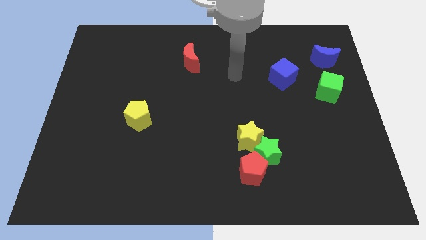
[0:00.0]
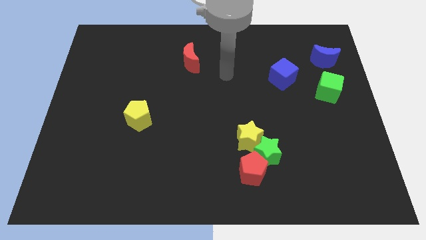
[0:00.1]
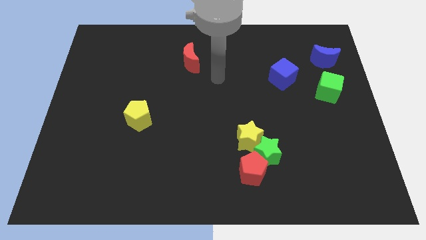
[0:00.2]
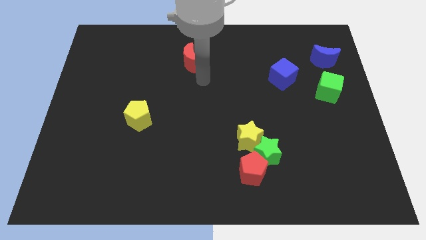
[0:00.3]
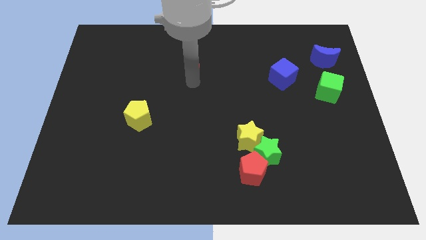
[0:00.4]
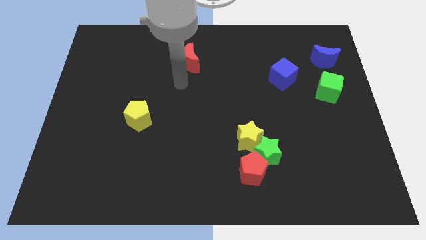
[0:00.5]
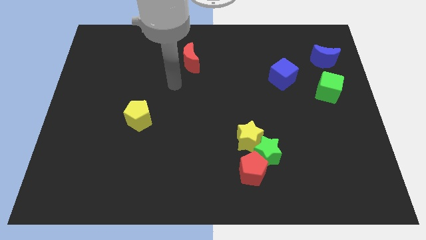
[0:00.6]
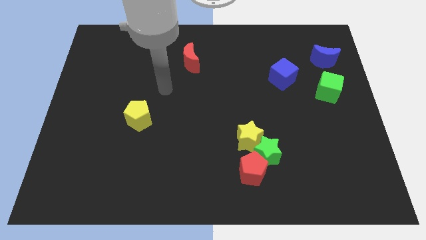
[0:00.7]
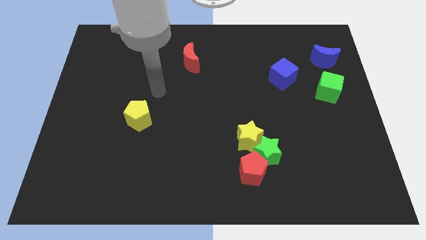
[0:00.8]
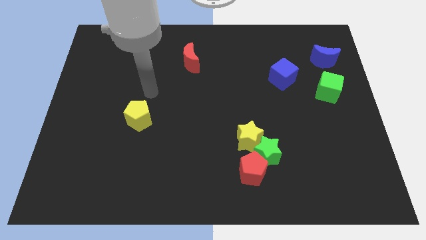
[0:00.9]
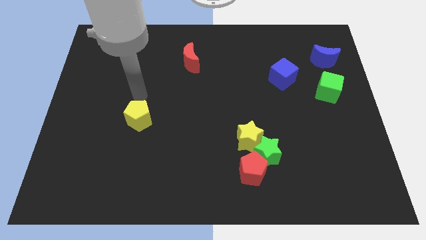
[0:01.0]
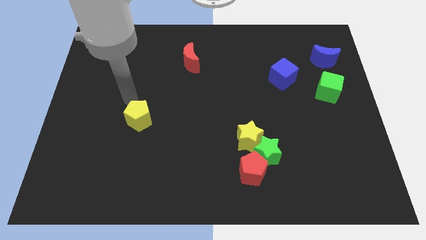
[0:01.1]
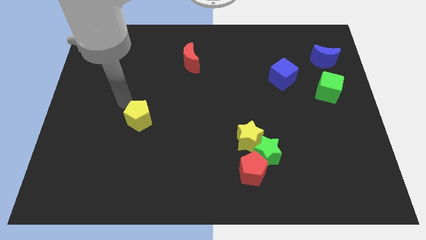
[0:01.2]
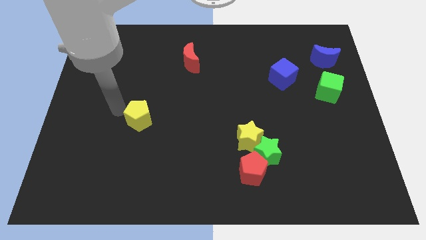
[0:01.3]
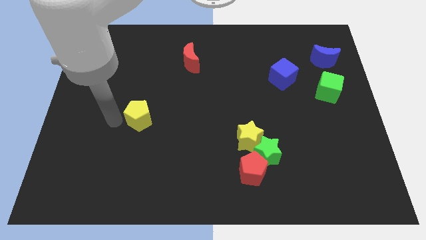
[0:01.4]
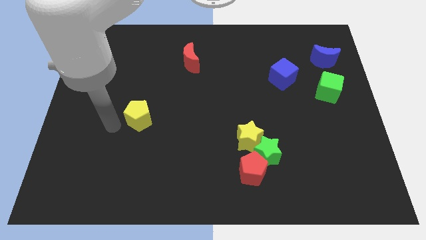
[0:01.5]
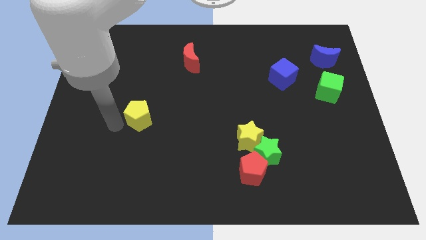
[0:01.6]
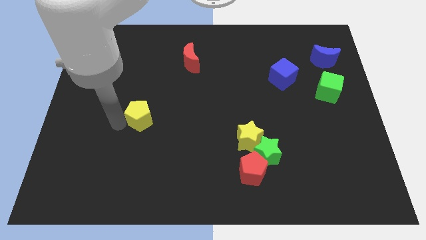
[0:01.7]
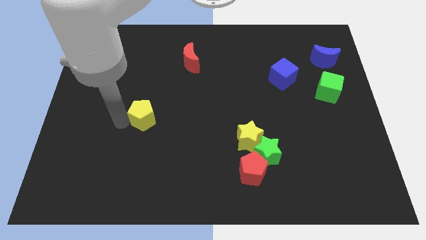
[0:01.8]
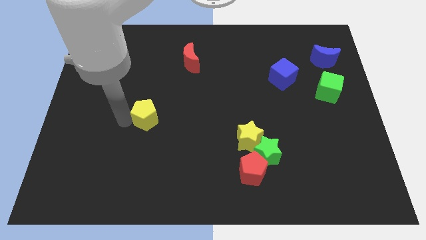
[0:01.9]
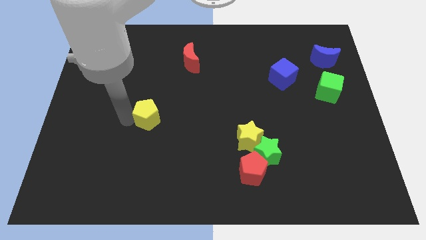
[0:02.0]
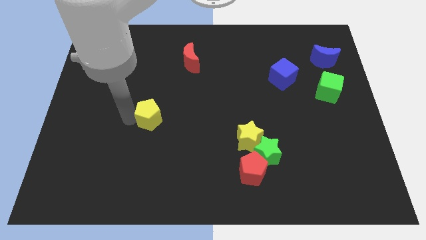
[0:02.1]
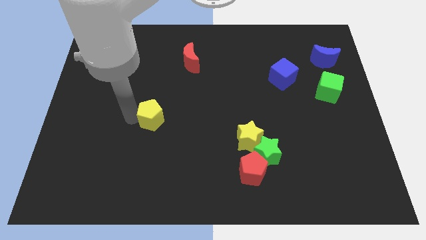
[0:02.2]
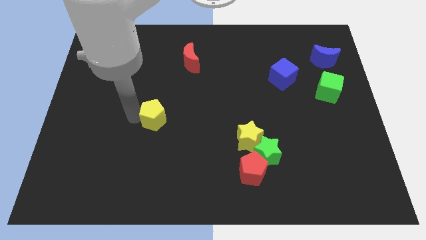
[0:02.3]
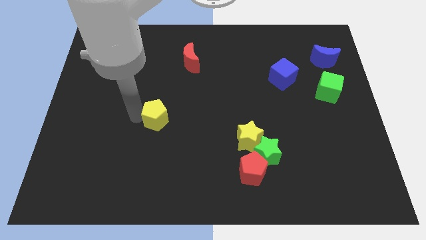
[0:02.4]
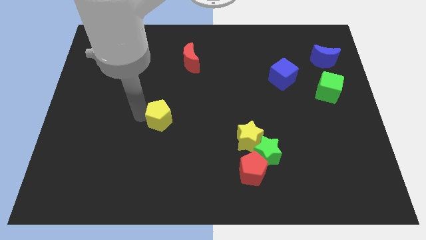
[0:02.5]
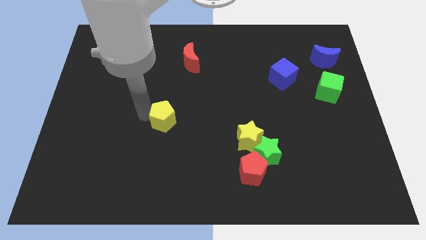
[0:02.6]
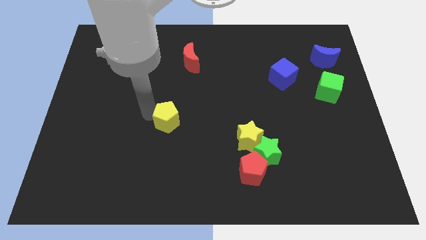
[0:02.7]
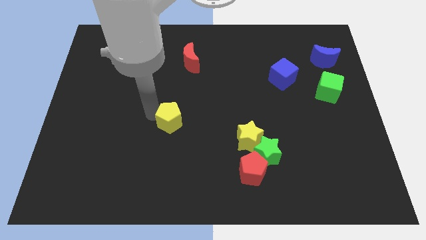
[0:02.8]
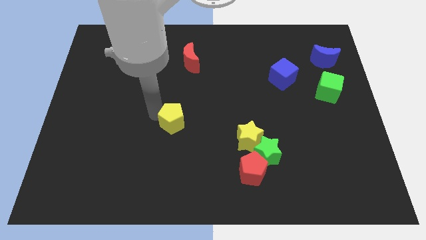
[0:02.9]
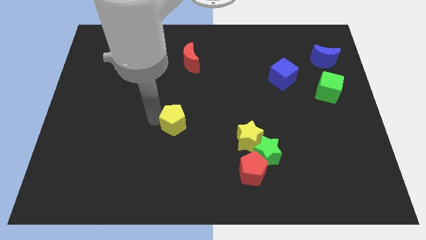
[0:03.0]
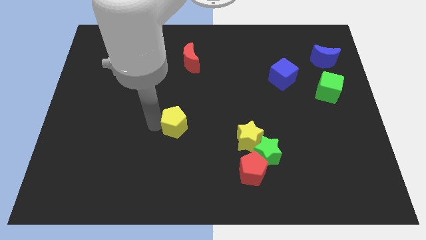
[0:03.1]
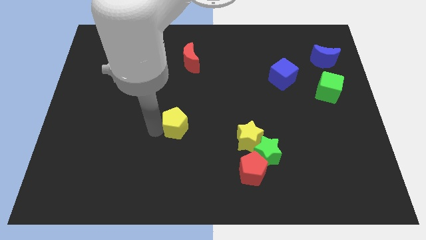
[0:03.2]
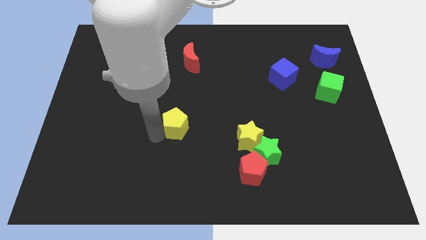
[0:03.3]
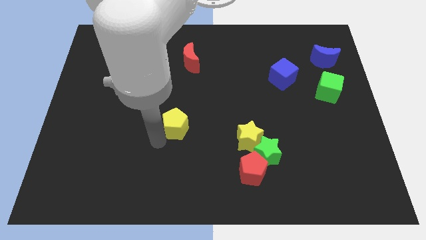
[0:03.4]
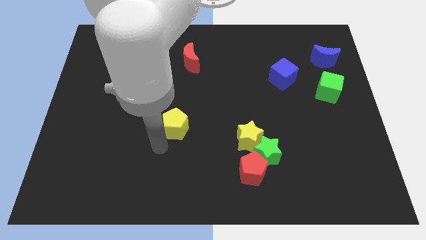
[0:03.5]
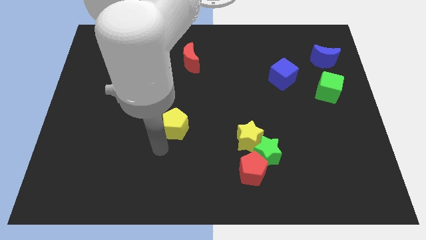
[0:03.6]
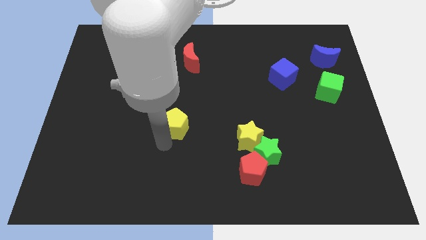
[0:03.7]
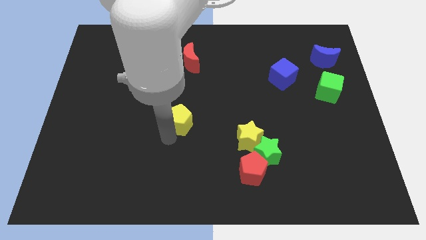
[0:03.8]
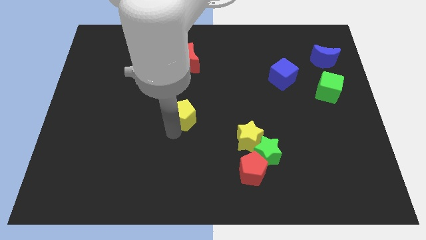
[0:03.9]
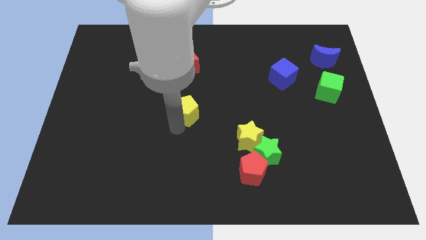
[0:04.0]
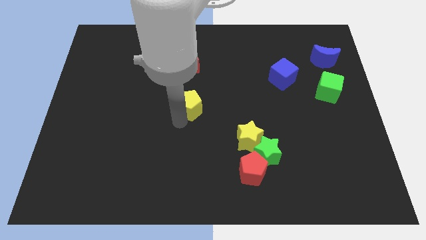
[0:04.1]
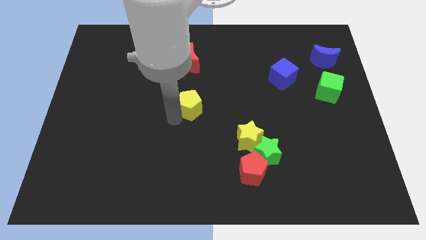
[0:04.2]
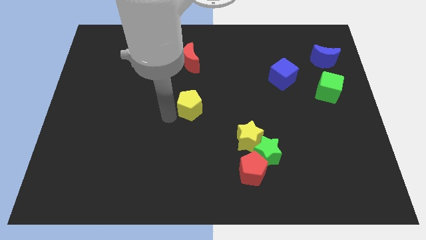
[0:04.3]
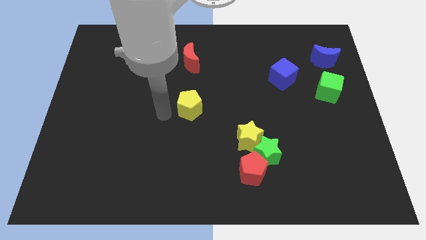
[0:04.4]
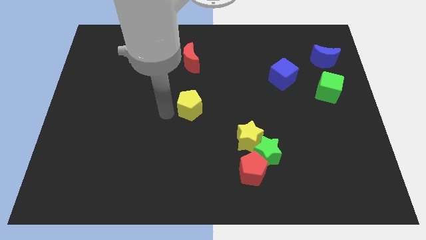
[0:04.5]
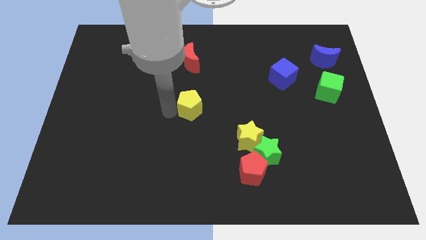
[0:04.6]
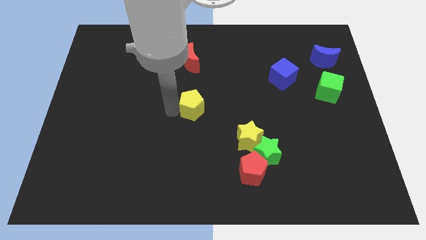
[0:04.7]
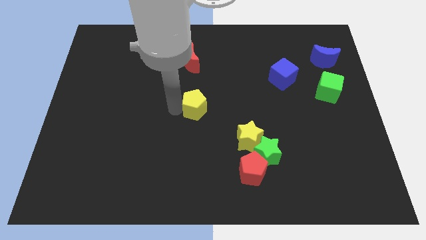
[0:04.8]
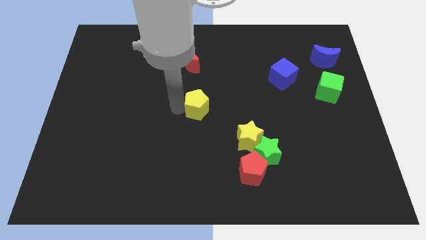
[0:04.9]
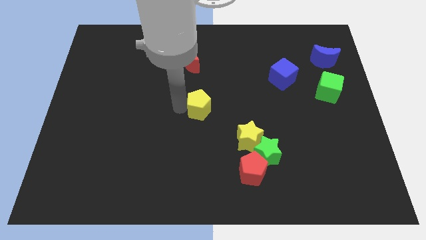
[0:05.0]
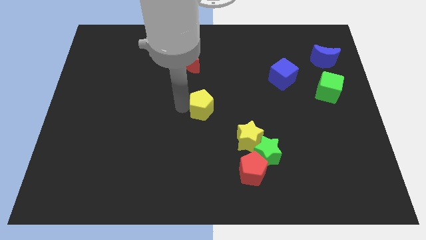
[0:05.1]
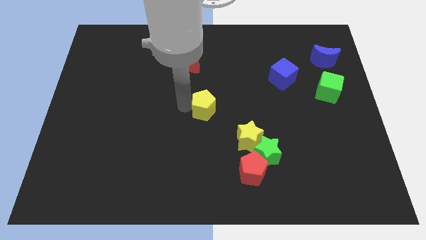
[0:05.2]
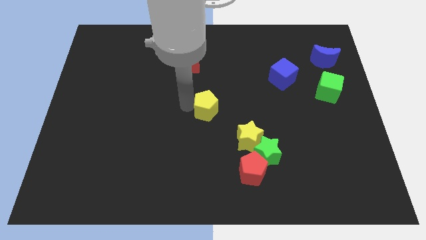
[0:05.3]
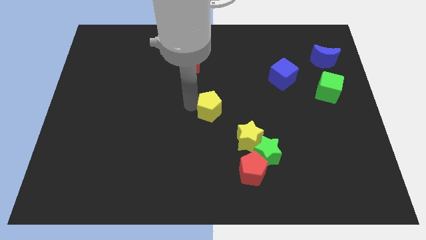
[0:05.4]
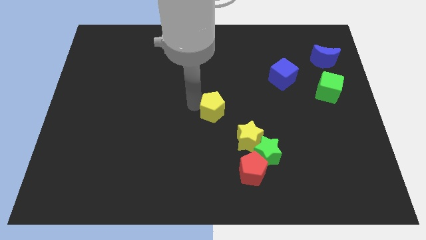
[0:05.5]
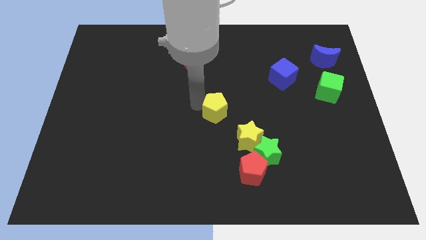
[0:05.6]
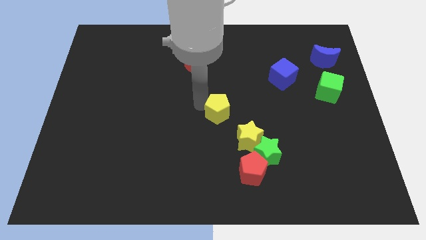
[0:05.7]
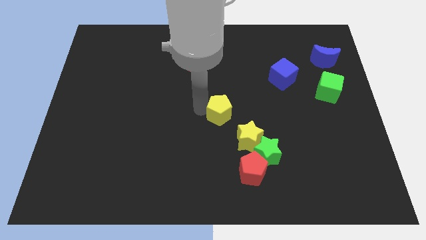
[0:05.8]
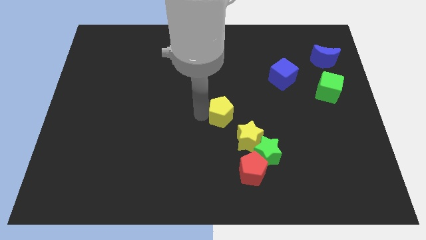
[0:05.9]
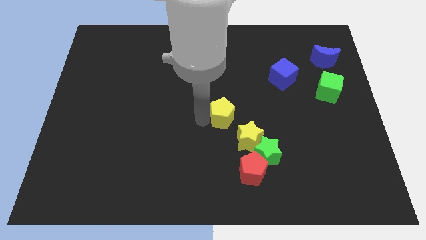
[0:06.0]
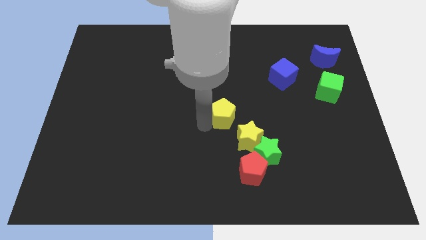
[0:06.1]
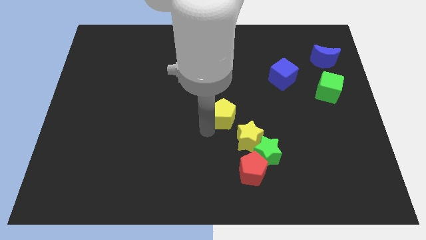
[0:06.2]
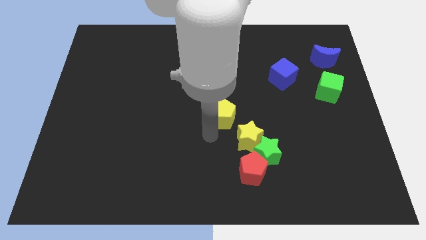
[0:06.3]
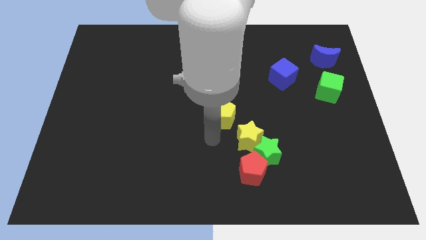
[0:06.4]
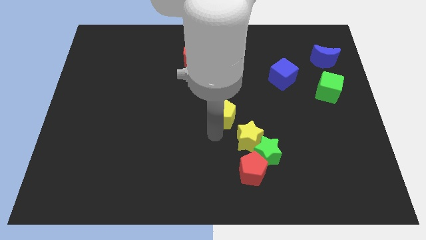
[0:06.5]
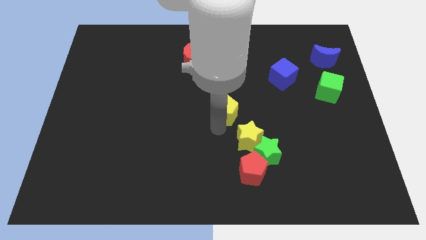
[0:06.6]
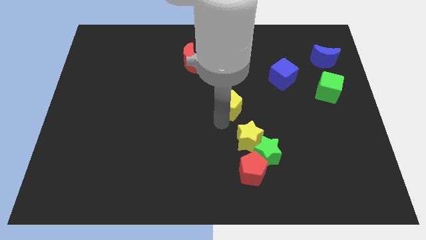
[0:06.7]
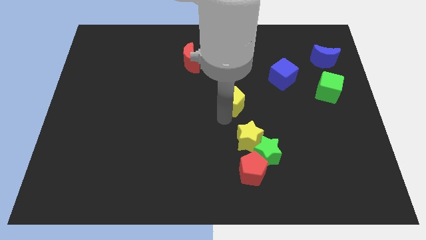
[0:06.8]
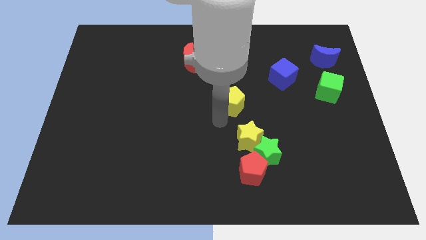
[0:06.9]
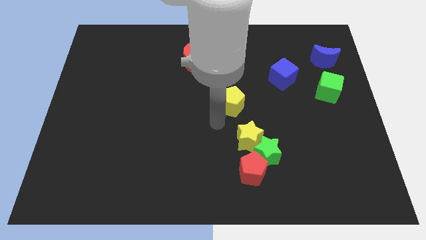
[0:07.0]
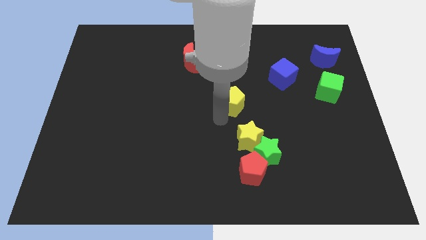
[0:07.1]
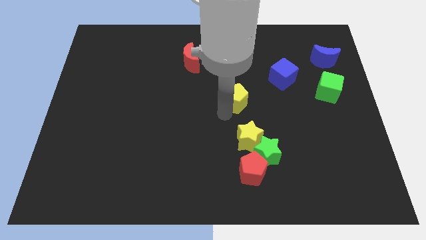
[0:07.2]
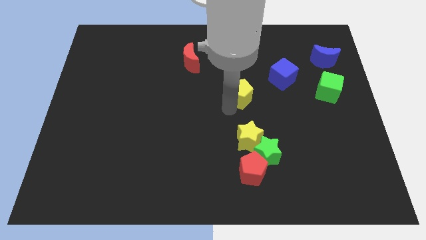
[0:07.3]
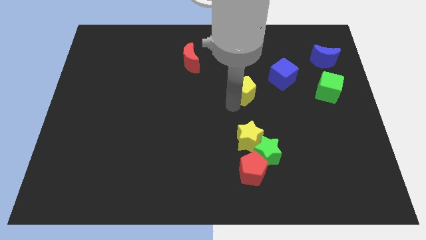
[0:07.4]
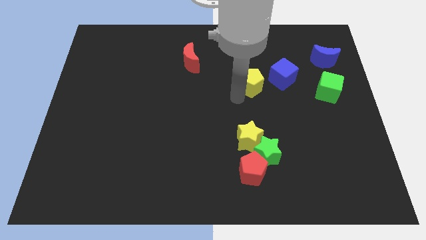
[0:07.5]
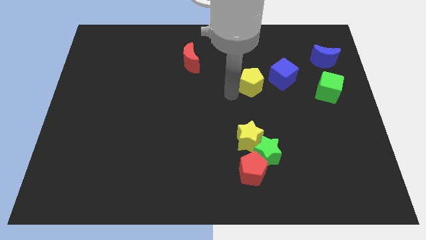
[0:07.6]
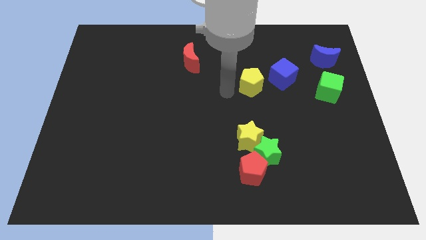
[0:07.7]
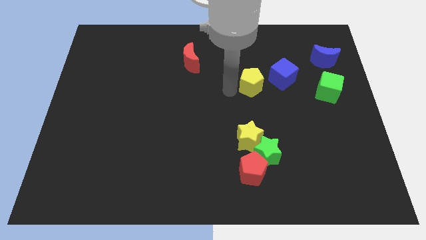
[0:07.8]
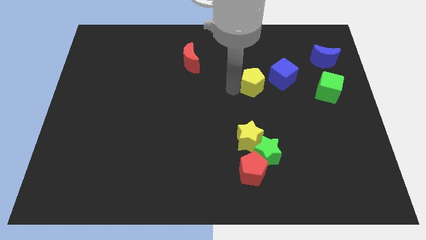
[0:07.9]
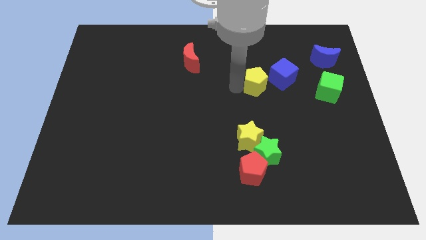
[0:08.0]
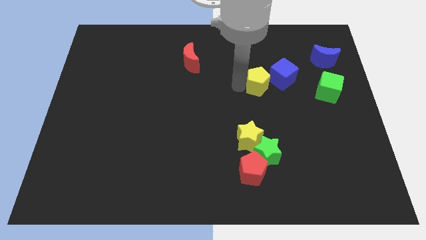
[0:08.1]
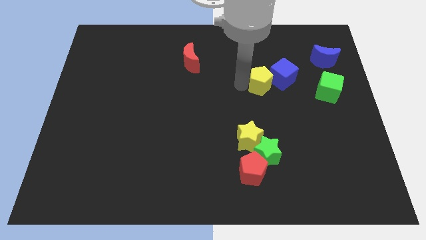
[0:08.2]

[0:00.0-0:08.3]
slide the yellow pentagon towards the blue cube
